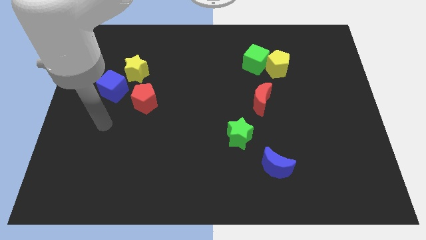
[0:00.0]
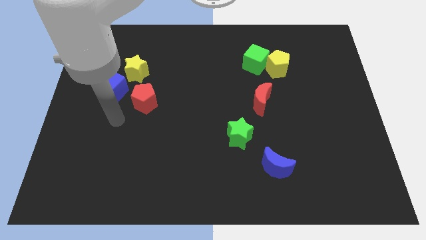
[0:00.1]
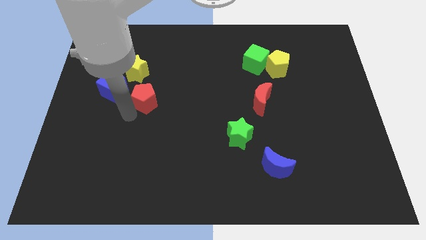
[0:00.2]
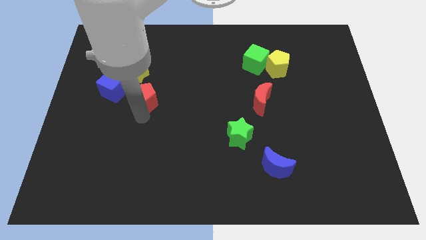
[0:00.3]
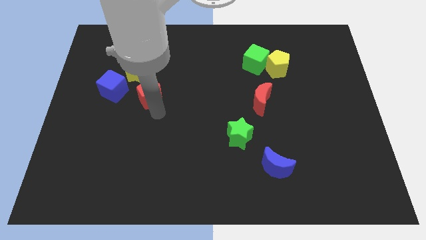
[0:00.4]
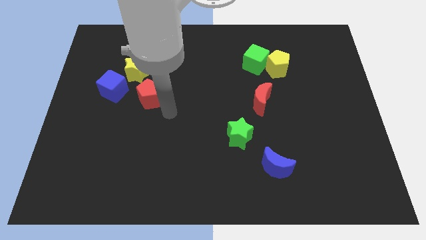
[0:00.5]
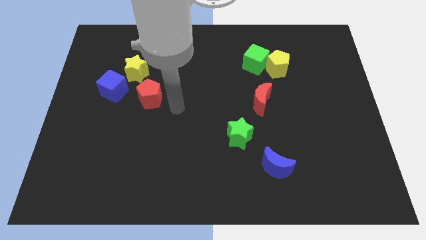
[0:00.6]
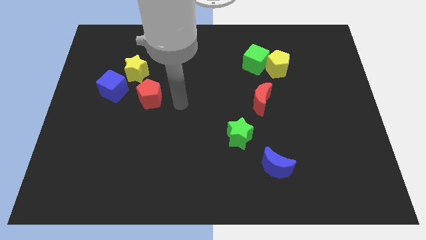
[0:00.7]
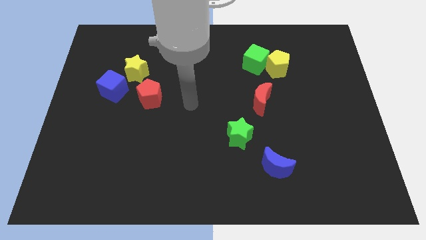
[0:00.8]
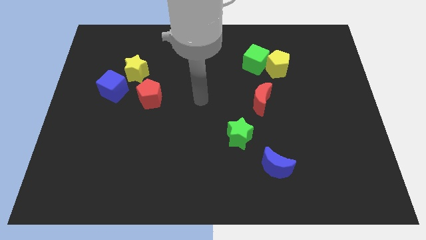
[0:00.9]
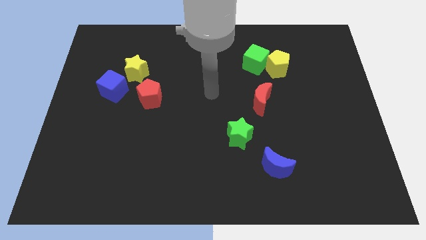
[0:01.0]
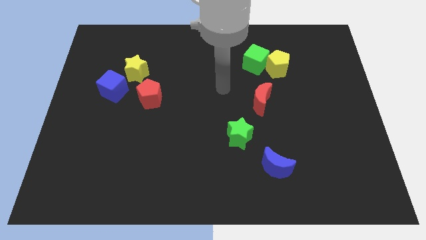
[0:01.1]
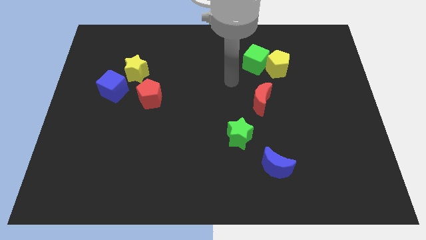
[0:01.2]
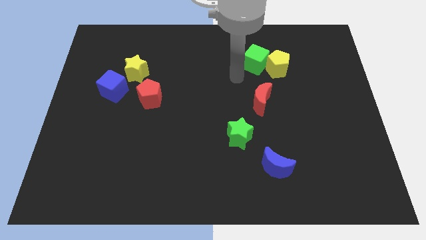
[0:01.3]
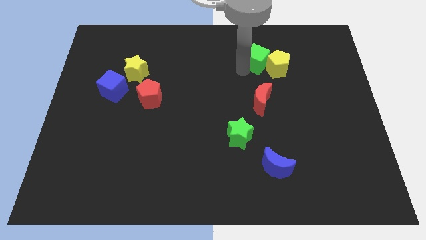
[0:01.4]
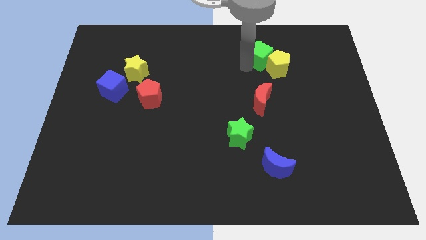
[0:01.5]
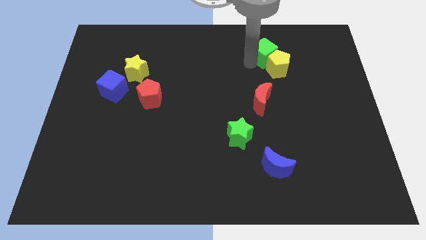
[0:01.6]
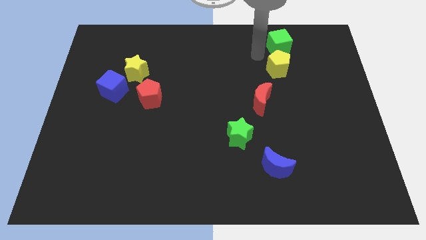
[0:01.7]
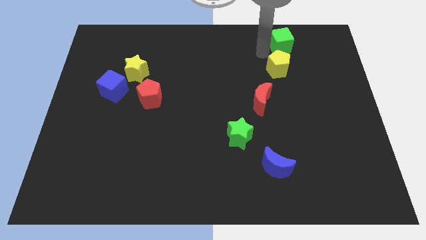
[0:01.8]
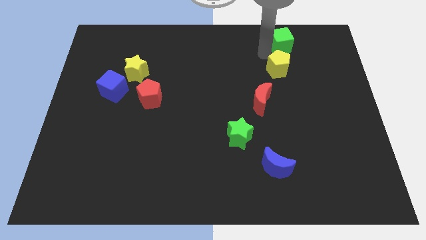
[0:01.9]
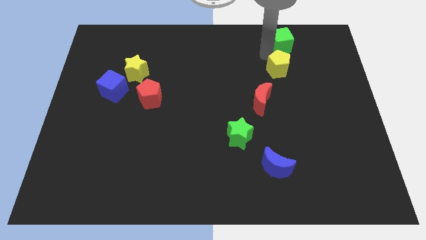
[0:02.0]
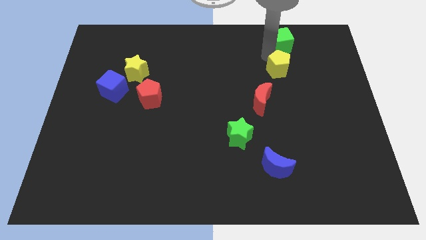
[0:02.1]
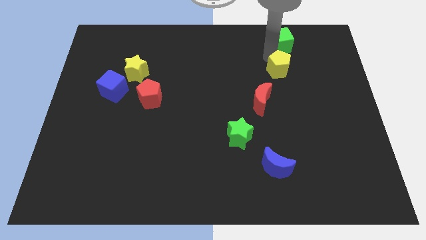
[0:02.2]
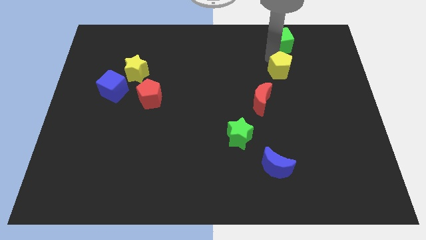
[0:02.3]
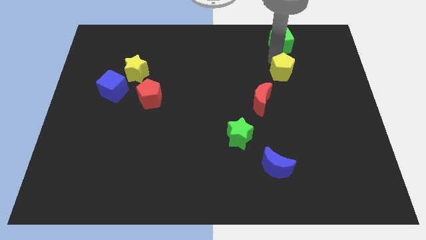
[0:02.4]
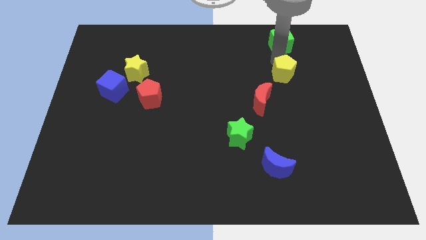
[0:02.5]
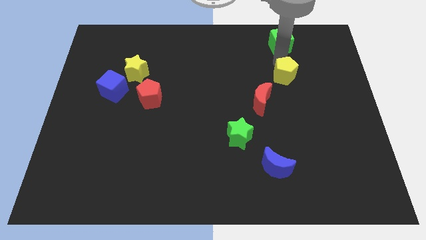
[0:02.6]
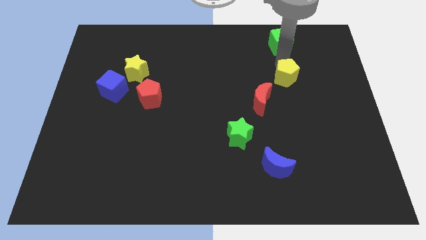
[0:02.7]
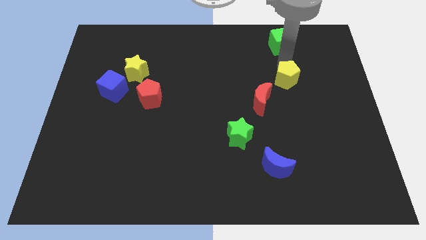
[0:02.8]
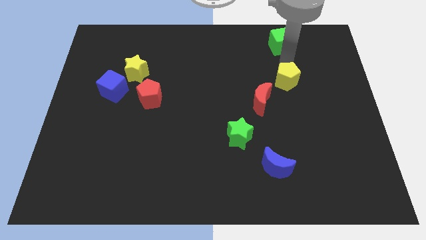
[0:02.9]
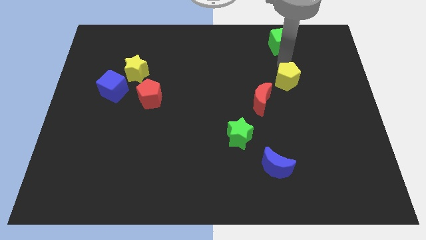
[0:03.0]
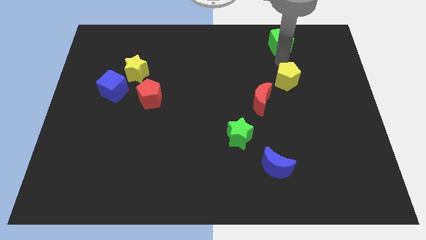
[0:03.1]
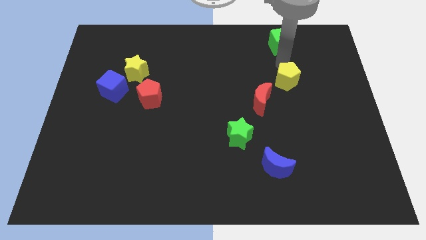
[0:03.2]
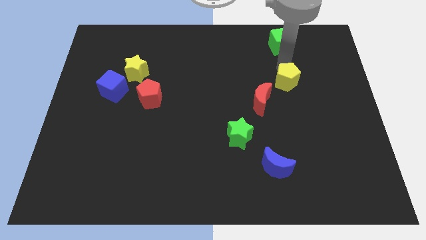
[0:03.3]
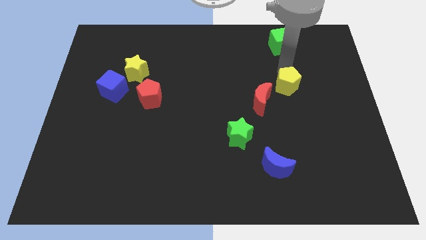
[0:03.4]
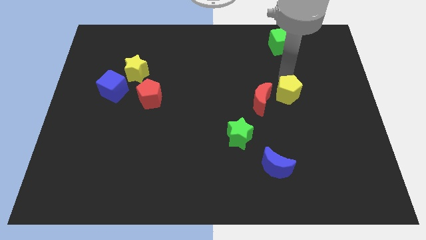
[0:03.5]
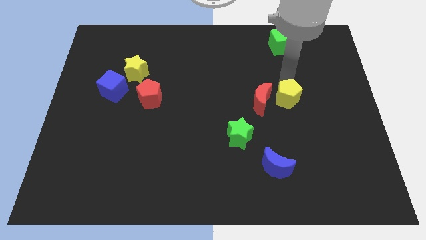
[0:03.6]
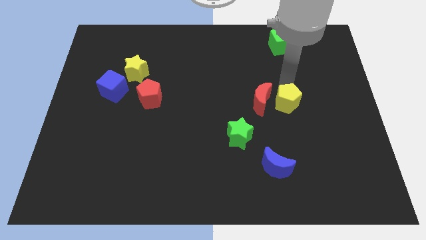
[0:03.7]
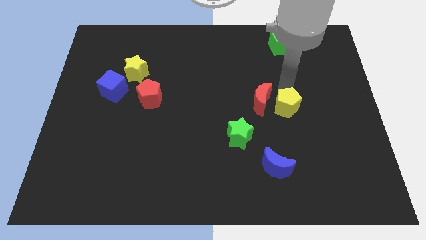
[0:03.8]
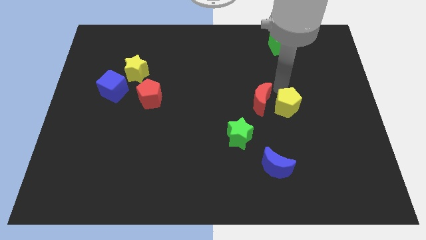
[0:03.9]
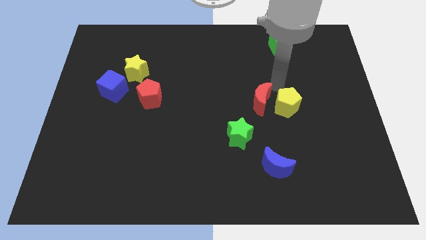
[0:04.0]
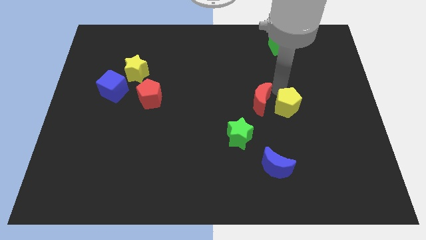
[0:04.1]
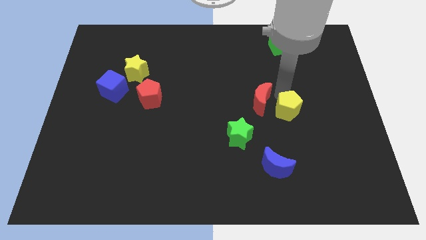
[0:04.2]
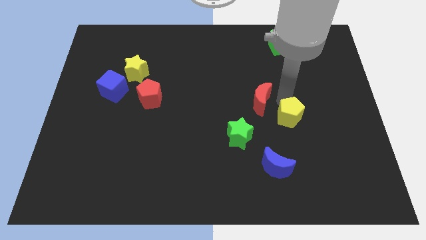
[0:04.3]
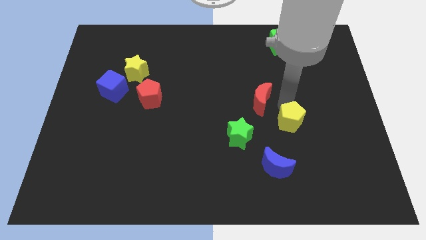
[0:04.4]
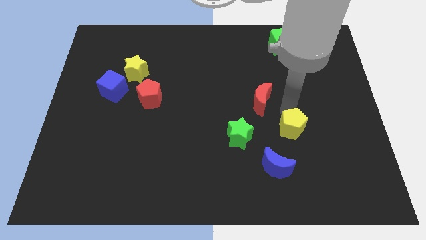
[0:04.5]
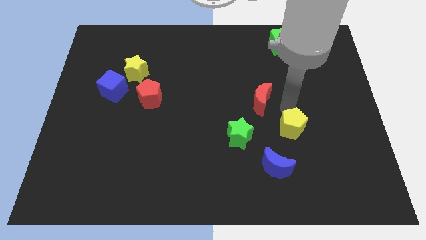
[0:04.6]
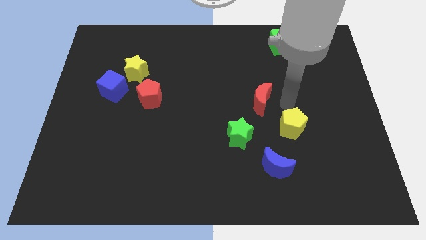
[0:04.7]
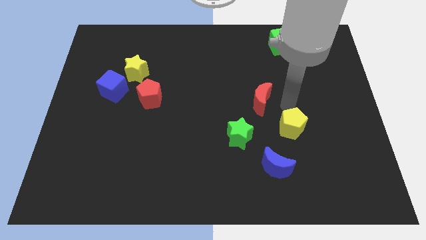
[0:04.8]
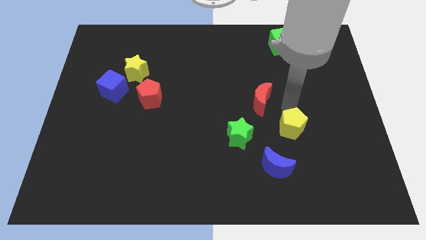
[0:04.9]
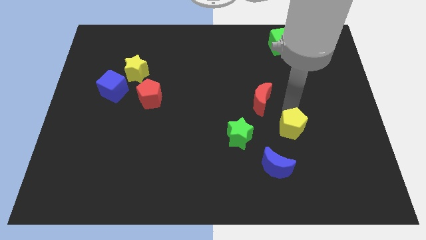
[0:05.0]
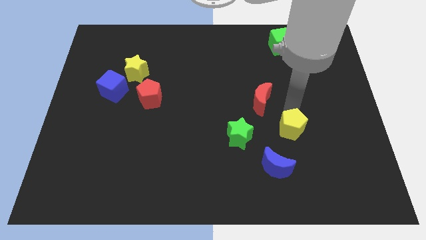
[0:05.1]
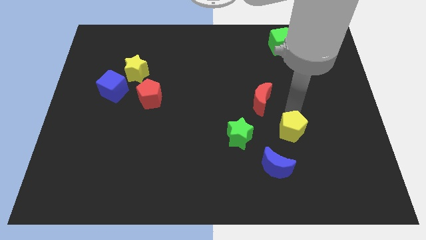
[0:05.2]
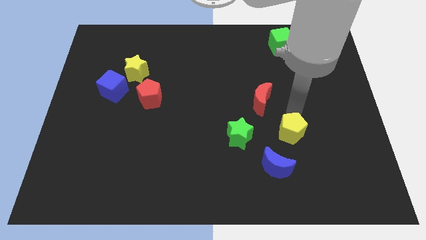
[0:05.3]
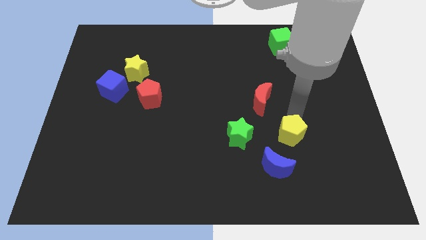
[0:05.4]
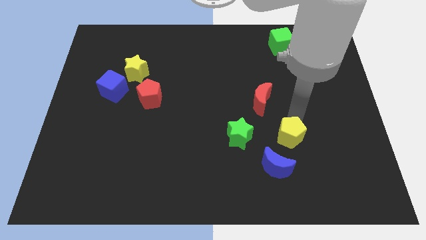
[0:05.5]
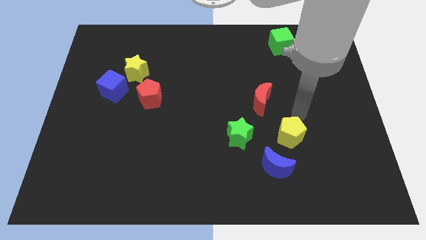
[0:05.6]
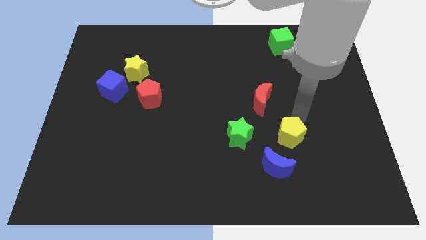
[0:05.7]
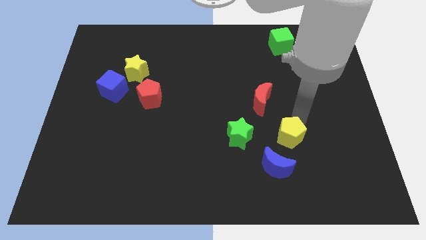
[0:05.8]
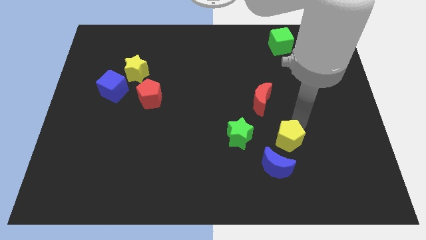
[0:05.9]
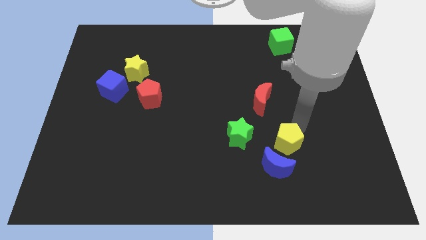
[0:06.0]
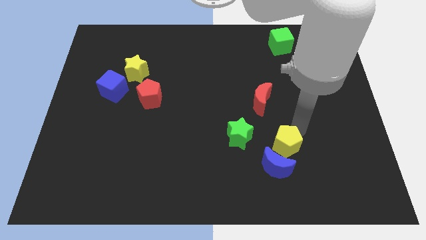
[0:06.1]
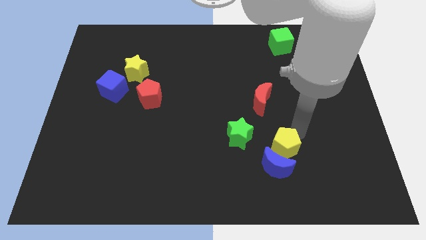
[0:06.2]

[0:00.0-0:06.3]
move the yellow pentagon next to the blue moon

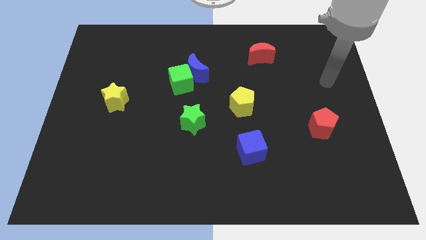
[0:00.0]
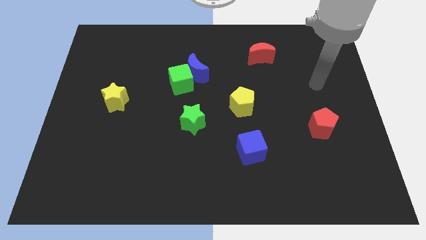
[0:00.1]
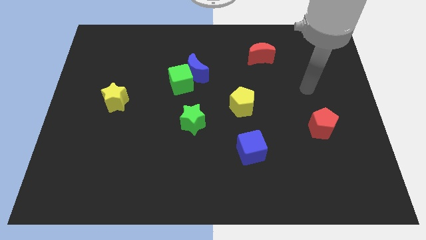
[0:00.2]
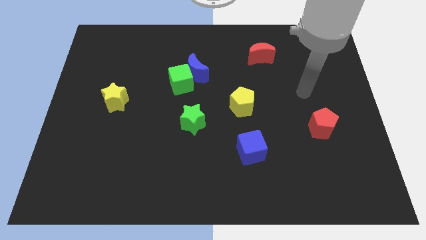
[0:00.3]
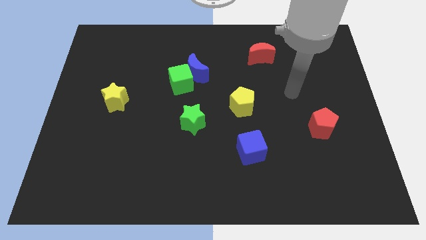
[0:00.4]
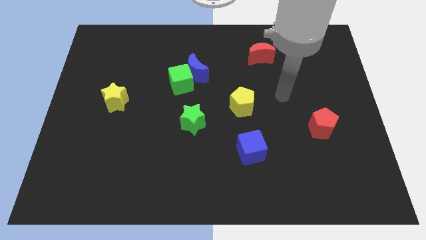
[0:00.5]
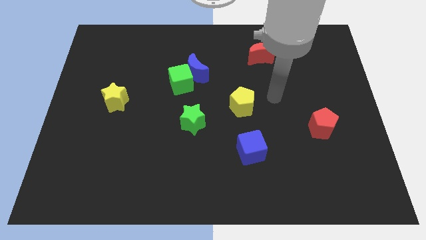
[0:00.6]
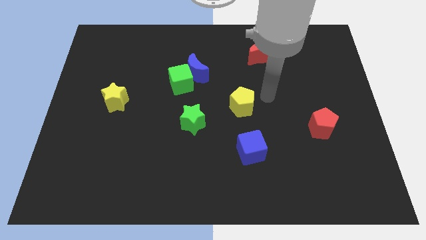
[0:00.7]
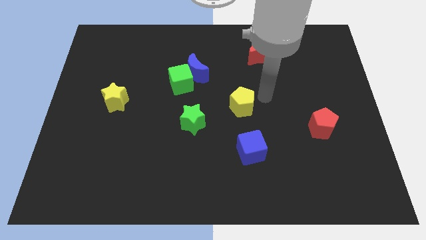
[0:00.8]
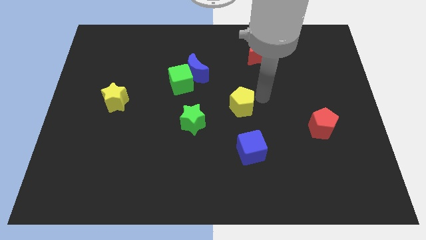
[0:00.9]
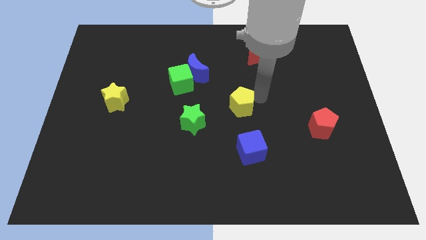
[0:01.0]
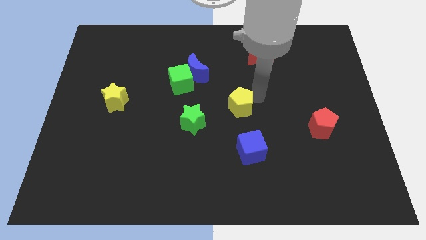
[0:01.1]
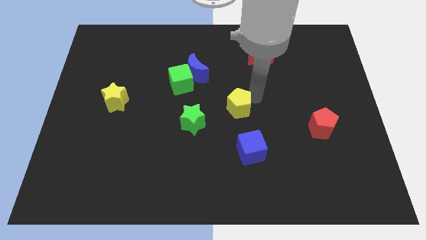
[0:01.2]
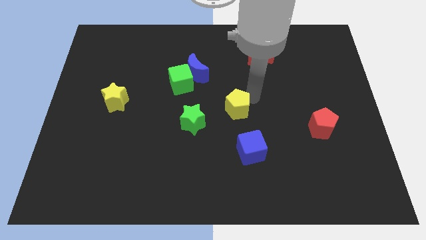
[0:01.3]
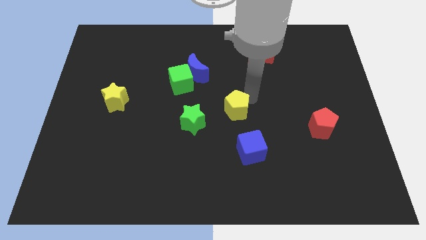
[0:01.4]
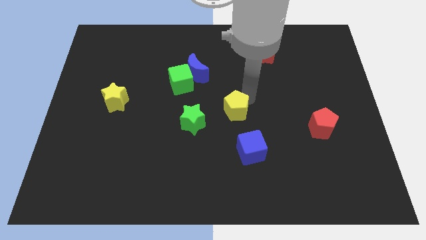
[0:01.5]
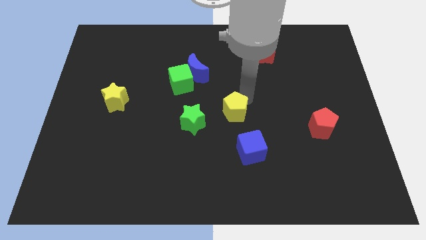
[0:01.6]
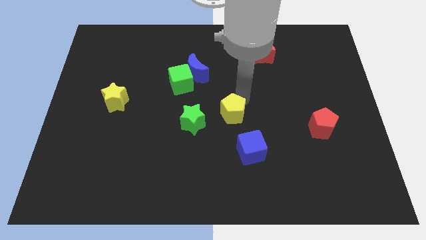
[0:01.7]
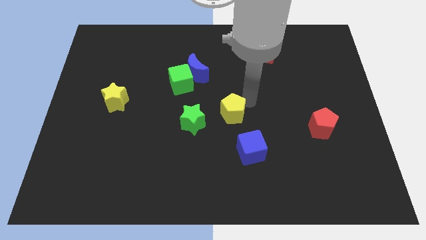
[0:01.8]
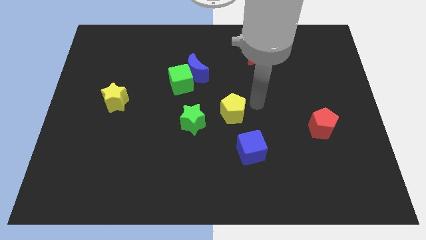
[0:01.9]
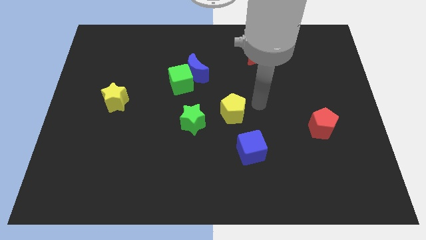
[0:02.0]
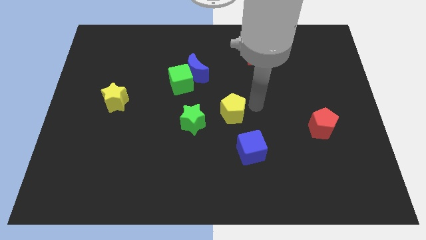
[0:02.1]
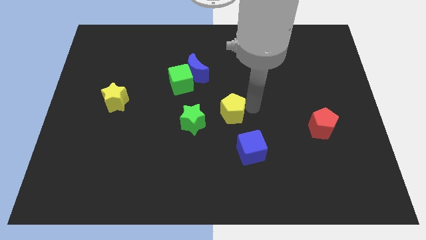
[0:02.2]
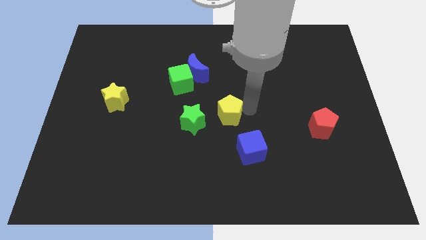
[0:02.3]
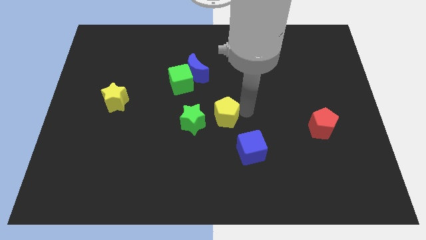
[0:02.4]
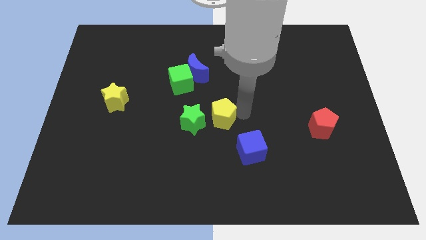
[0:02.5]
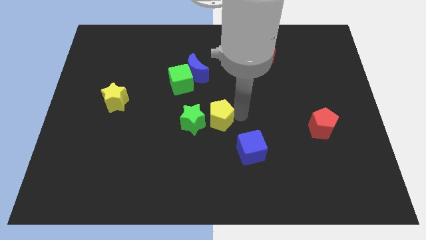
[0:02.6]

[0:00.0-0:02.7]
slide the yellow pentagon to the green star
